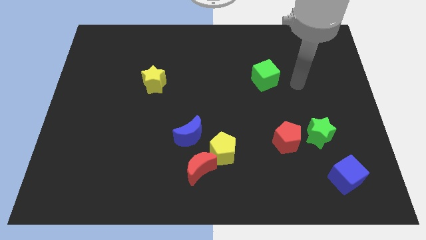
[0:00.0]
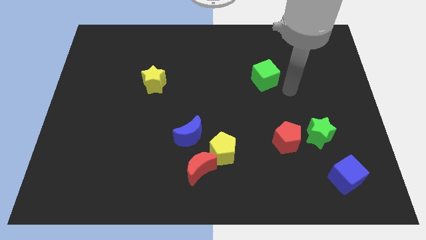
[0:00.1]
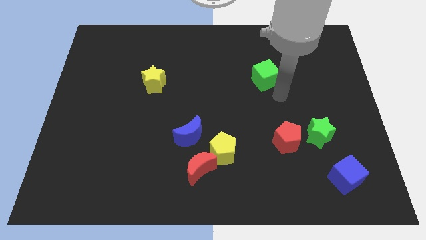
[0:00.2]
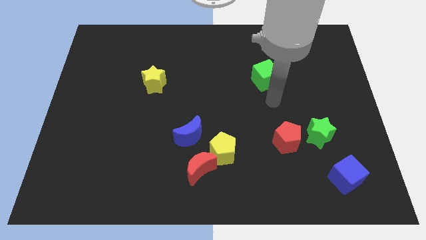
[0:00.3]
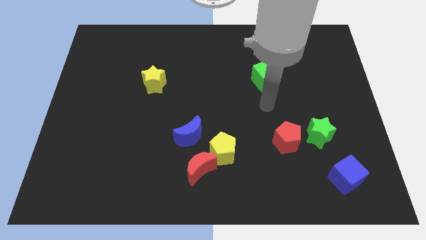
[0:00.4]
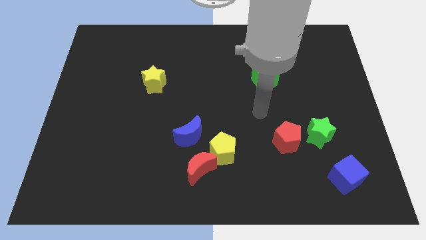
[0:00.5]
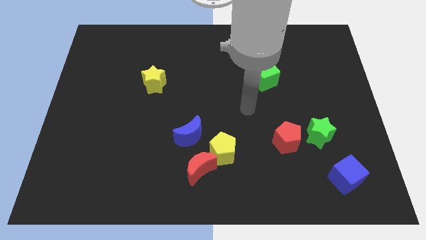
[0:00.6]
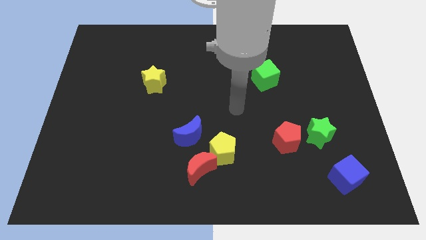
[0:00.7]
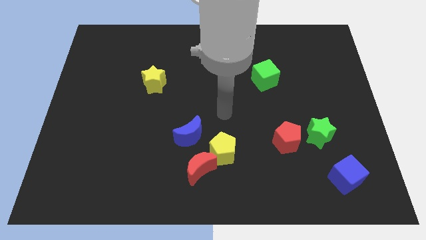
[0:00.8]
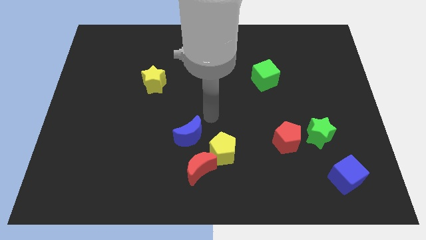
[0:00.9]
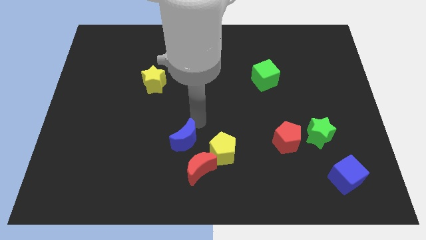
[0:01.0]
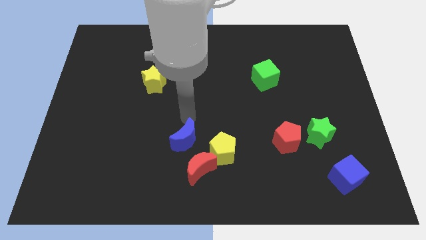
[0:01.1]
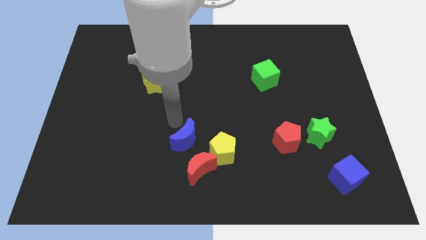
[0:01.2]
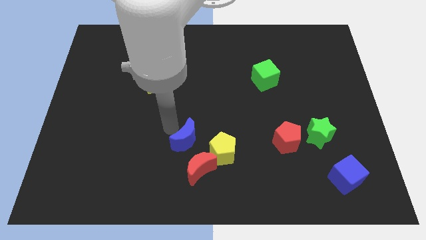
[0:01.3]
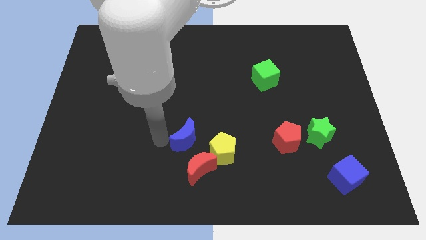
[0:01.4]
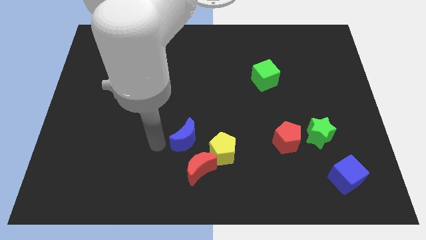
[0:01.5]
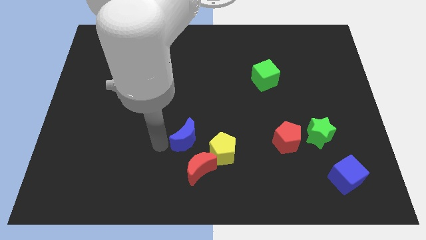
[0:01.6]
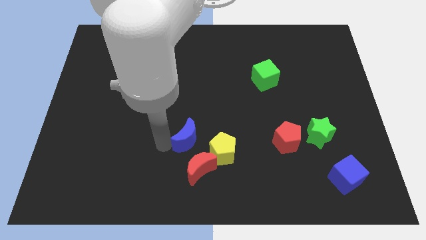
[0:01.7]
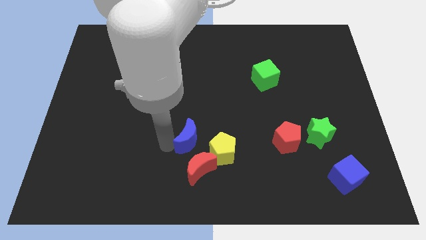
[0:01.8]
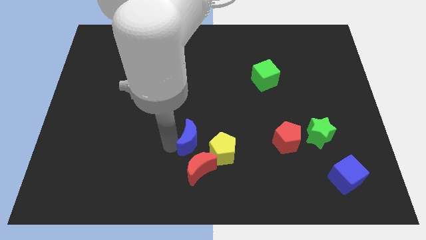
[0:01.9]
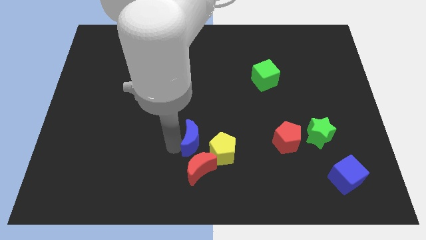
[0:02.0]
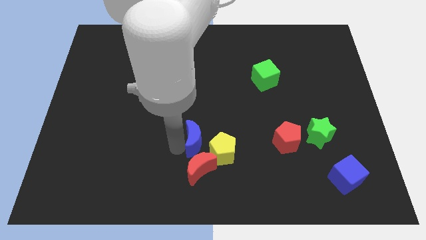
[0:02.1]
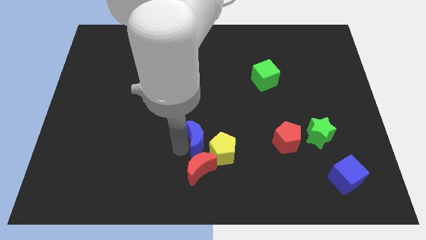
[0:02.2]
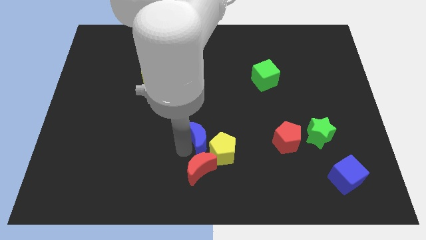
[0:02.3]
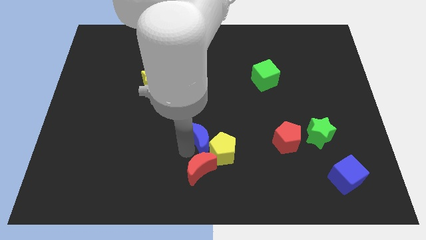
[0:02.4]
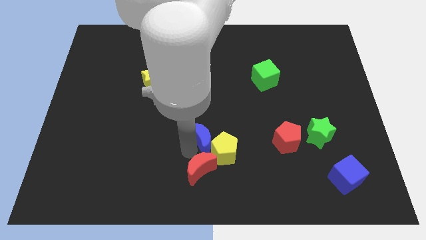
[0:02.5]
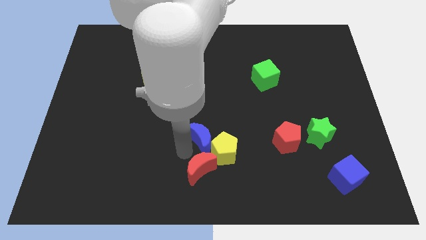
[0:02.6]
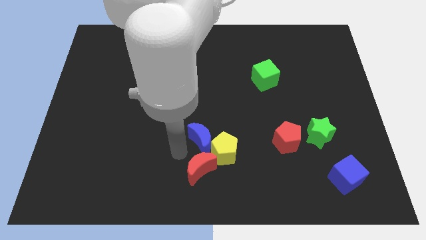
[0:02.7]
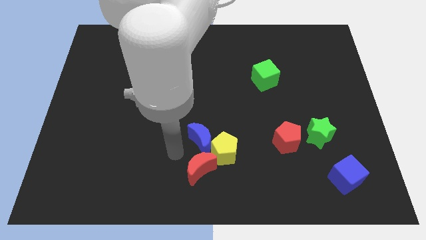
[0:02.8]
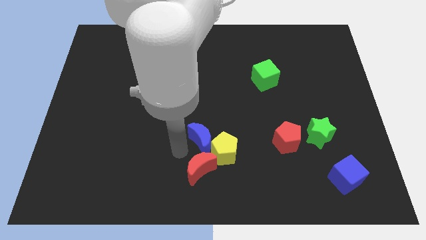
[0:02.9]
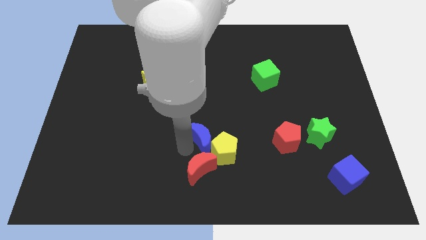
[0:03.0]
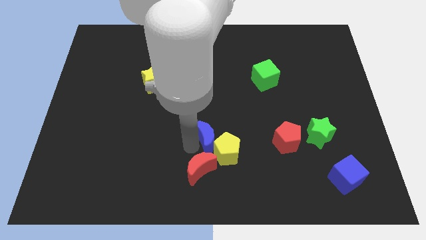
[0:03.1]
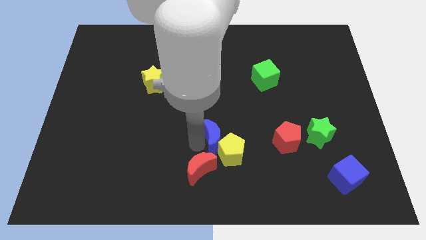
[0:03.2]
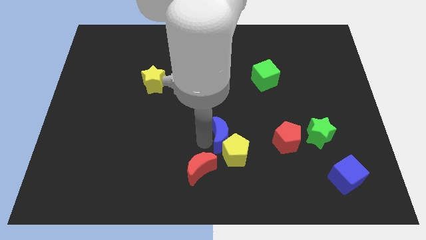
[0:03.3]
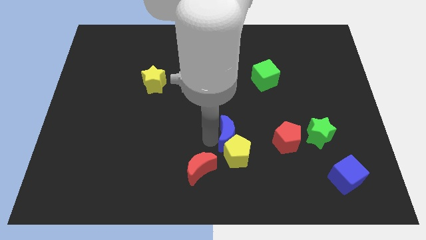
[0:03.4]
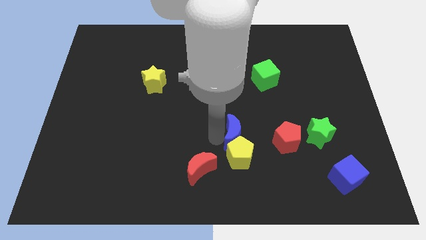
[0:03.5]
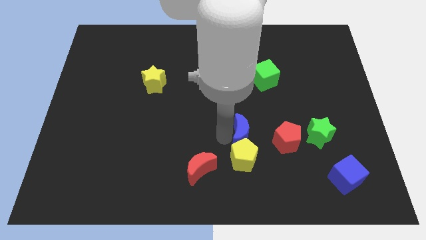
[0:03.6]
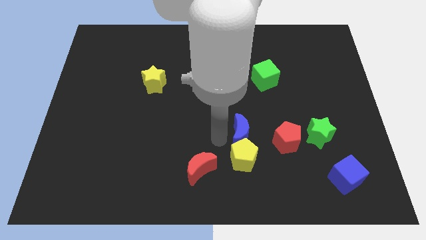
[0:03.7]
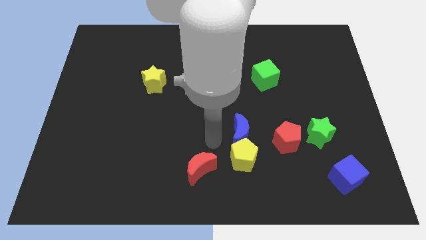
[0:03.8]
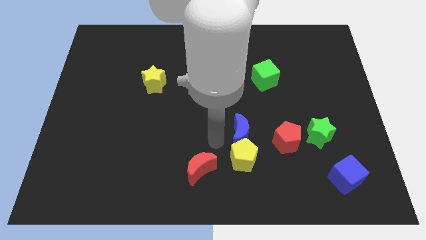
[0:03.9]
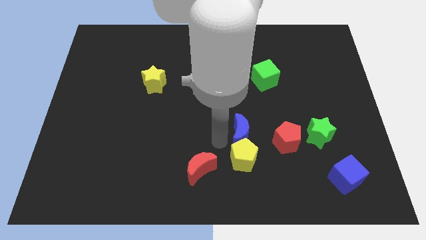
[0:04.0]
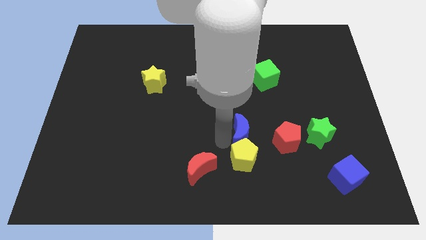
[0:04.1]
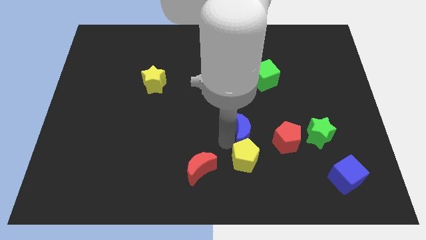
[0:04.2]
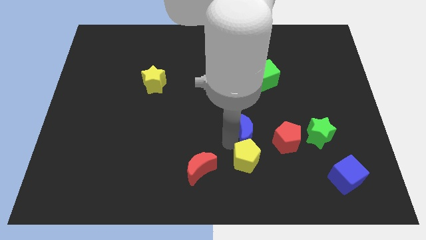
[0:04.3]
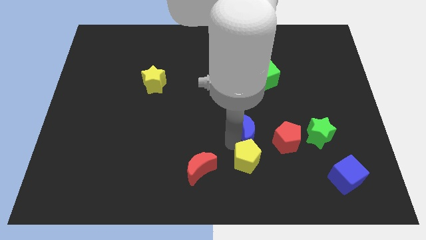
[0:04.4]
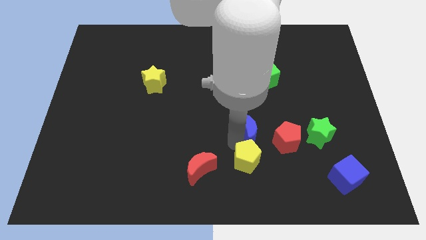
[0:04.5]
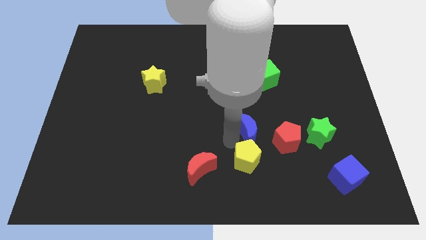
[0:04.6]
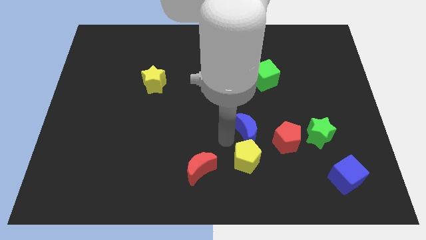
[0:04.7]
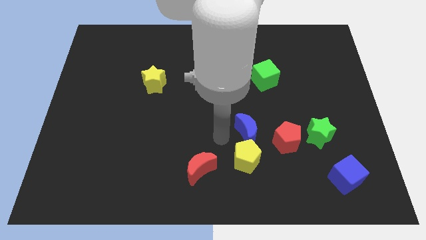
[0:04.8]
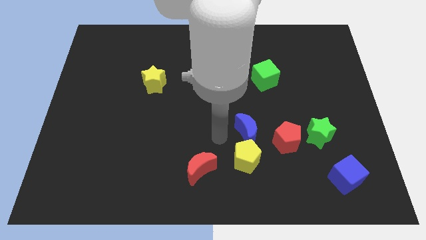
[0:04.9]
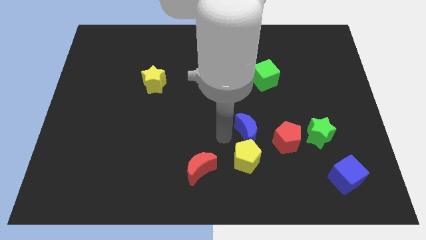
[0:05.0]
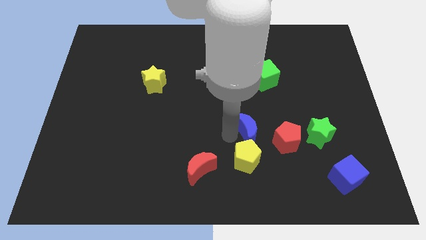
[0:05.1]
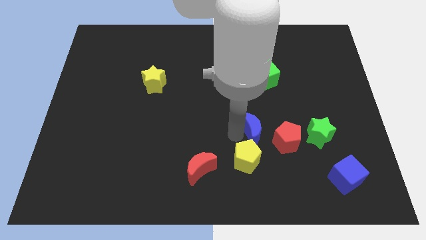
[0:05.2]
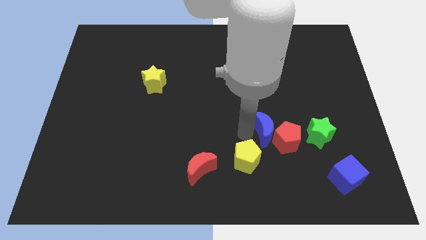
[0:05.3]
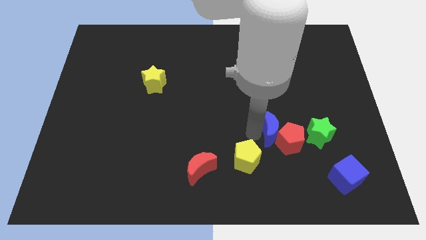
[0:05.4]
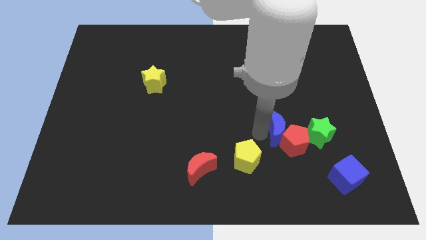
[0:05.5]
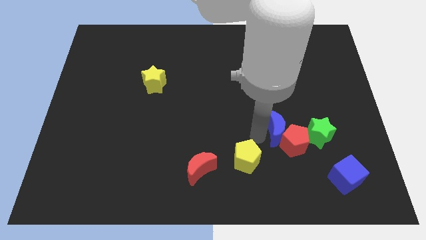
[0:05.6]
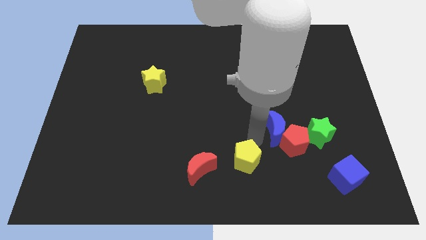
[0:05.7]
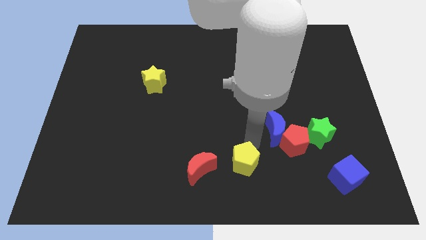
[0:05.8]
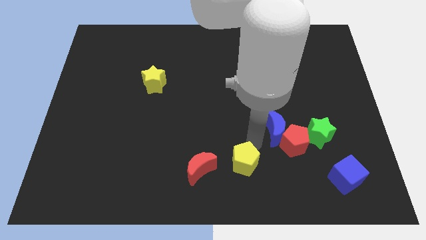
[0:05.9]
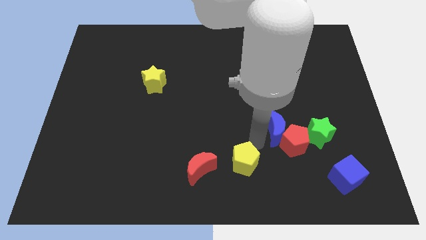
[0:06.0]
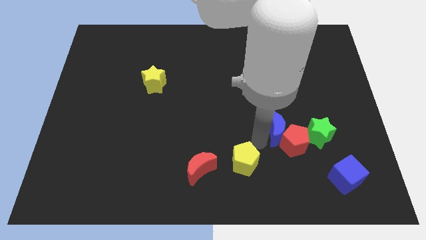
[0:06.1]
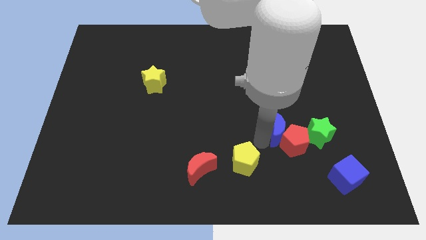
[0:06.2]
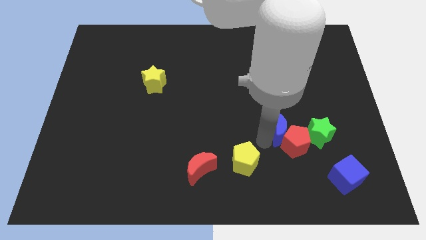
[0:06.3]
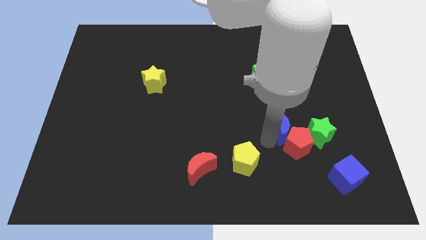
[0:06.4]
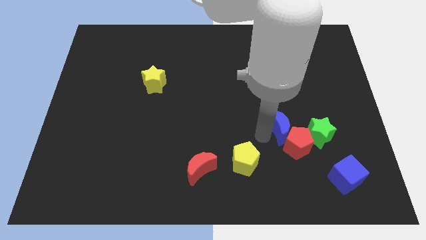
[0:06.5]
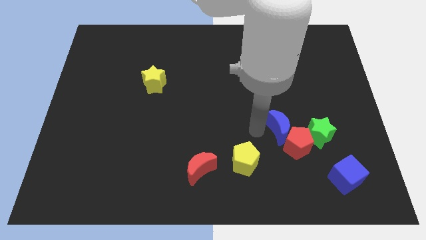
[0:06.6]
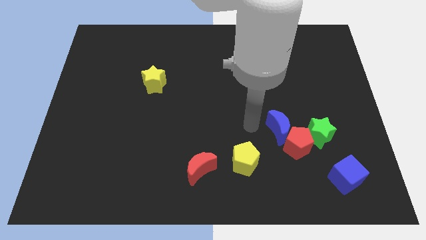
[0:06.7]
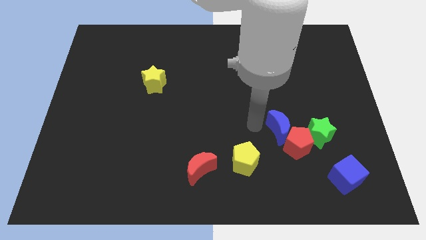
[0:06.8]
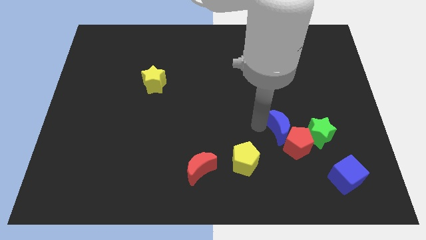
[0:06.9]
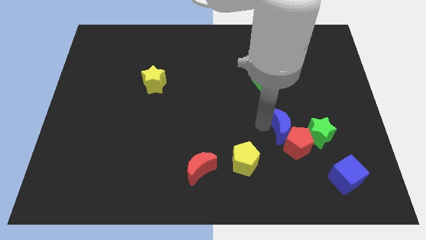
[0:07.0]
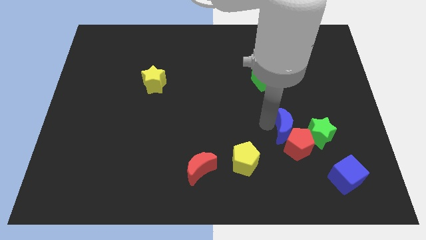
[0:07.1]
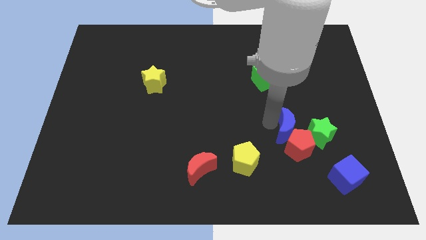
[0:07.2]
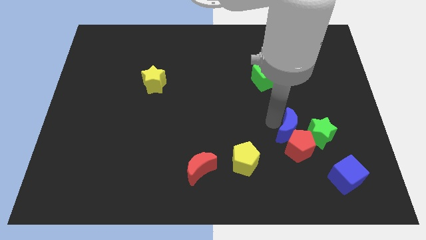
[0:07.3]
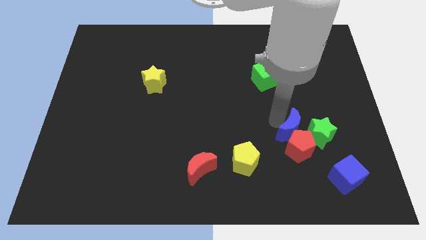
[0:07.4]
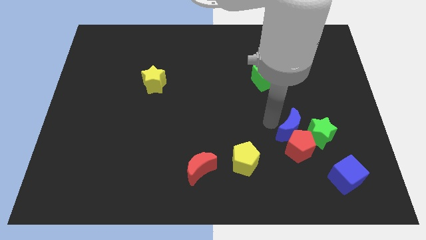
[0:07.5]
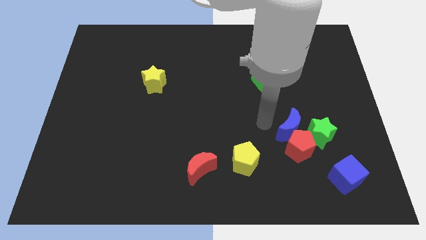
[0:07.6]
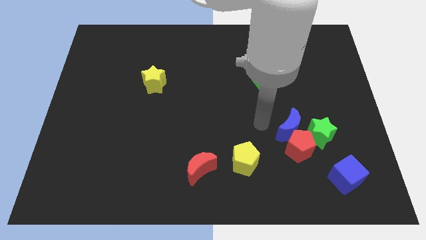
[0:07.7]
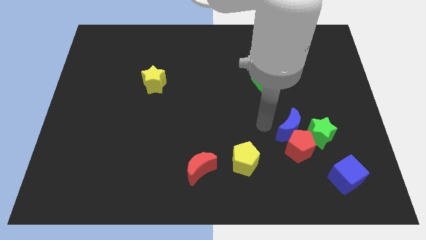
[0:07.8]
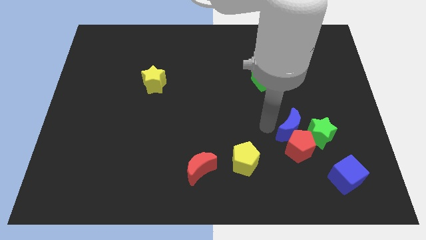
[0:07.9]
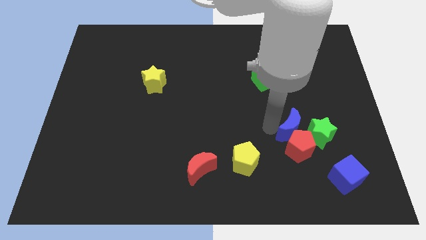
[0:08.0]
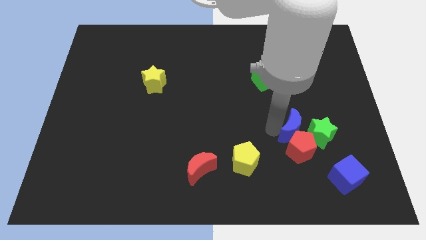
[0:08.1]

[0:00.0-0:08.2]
move the blue moon close to the green star
